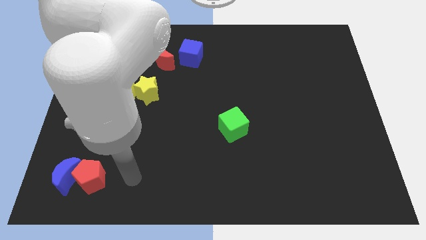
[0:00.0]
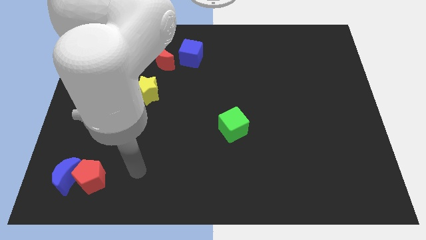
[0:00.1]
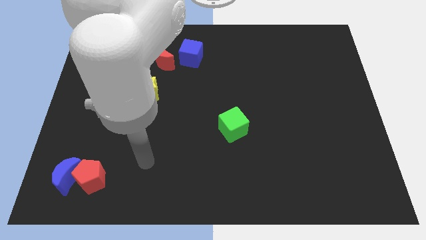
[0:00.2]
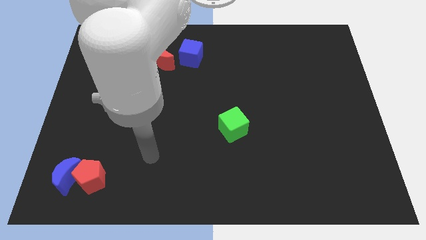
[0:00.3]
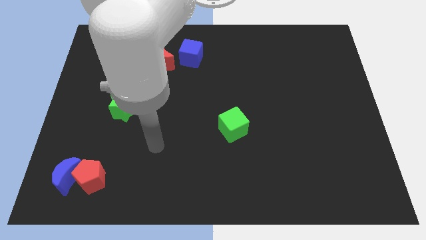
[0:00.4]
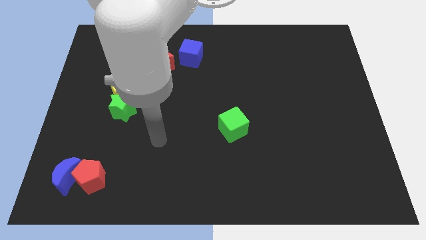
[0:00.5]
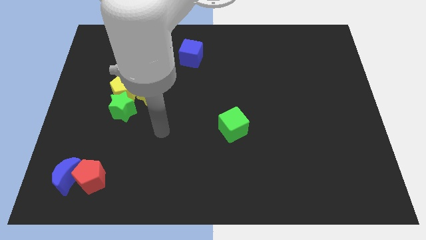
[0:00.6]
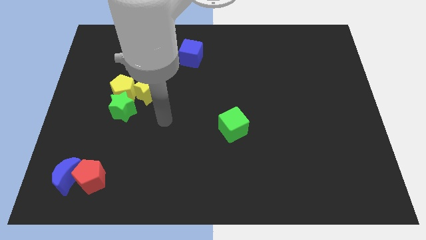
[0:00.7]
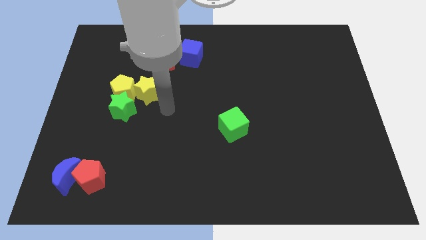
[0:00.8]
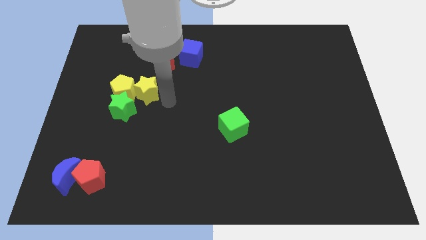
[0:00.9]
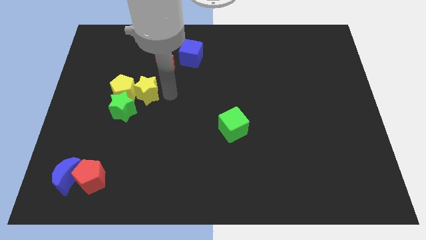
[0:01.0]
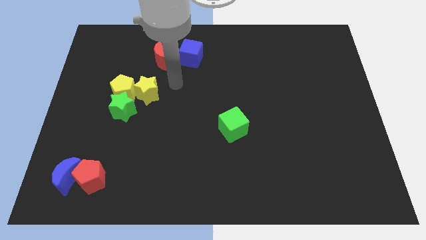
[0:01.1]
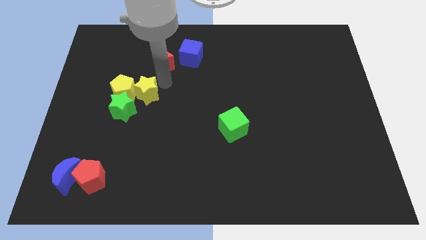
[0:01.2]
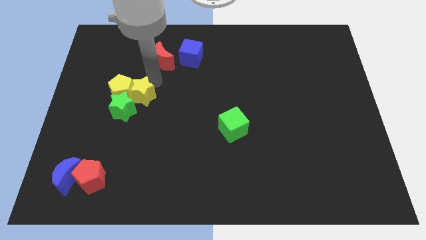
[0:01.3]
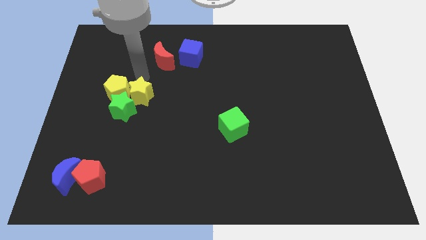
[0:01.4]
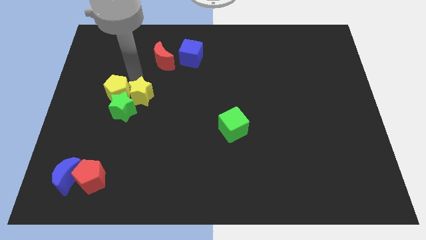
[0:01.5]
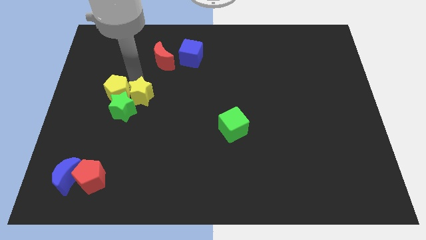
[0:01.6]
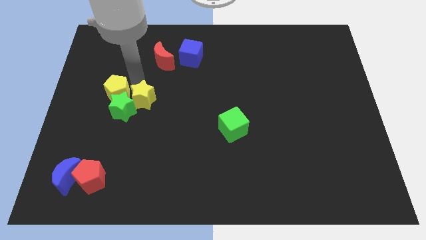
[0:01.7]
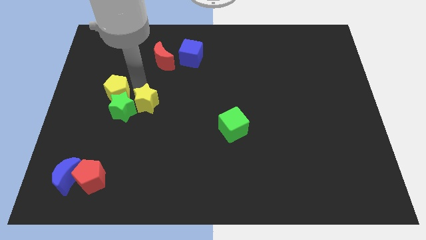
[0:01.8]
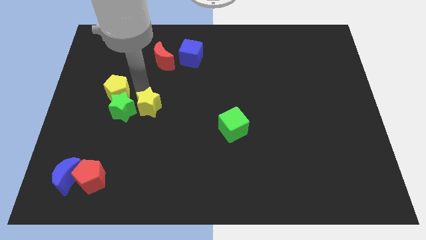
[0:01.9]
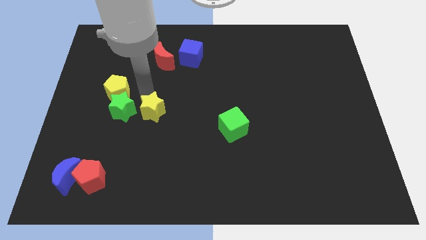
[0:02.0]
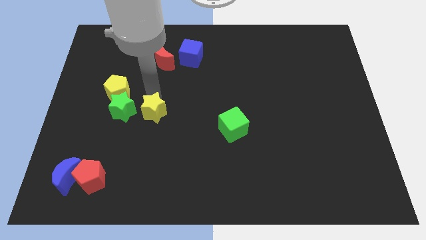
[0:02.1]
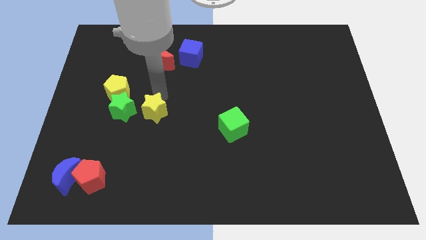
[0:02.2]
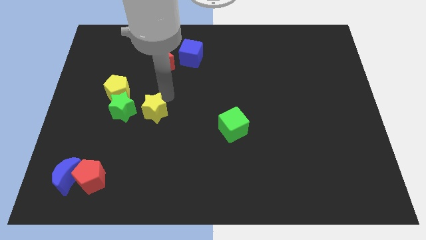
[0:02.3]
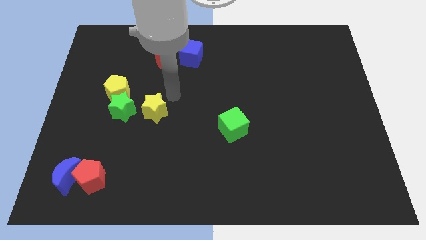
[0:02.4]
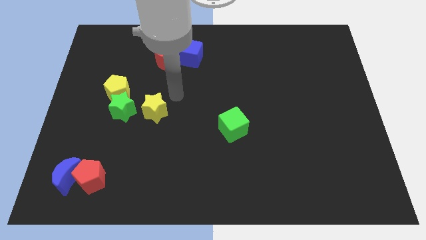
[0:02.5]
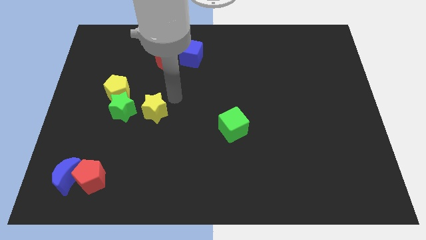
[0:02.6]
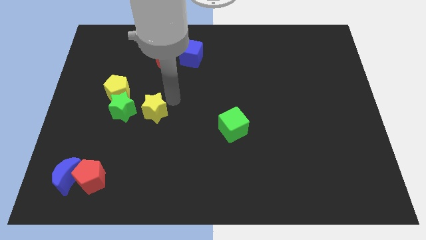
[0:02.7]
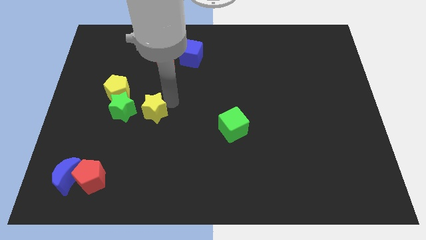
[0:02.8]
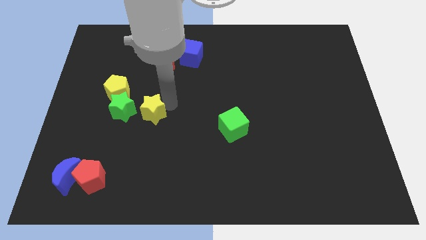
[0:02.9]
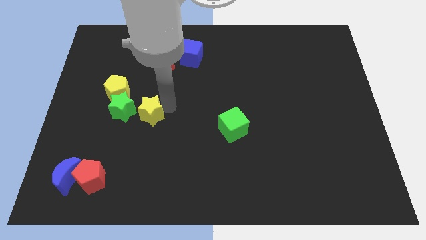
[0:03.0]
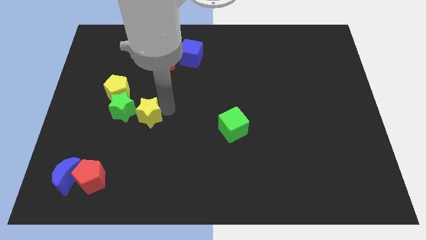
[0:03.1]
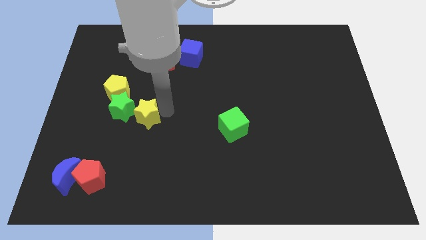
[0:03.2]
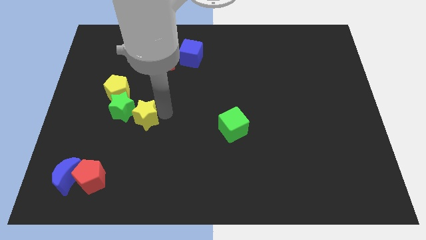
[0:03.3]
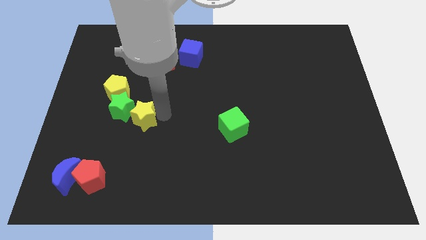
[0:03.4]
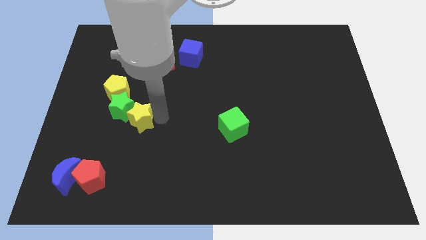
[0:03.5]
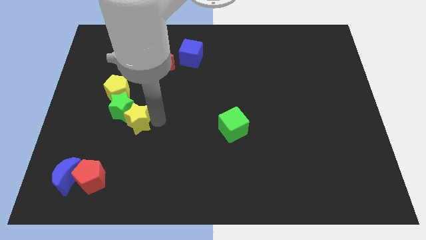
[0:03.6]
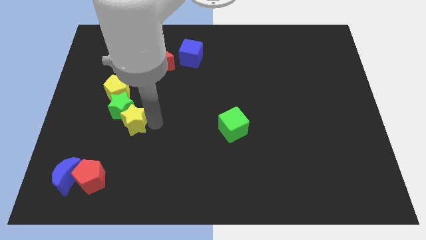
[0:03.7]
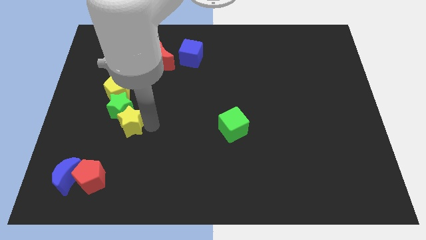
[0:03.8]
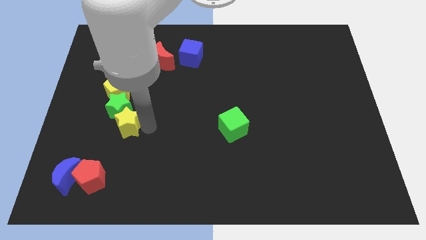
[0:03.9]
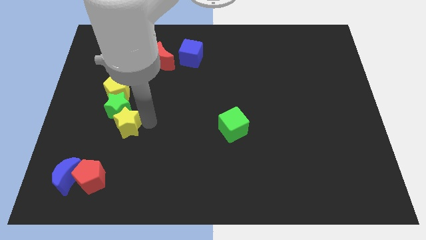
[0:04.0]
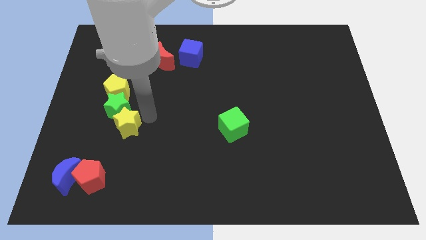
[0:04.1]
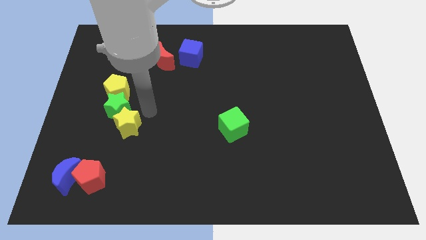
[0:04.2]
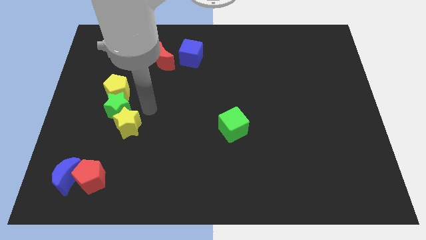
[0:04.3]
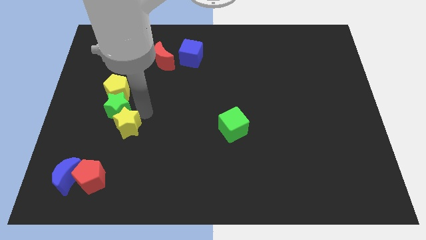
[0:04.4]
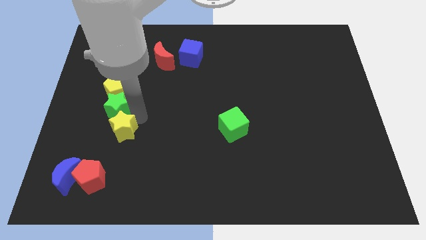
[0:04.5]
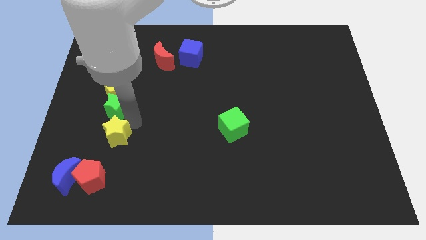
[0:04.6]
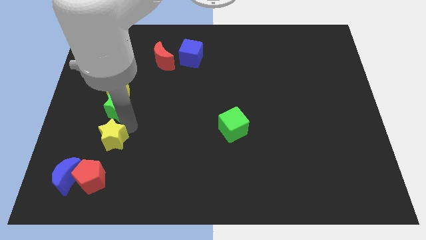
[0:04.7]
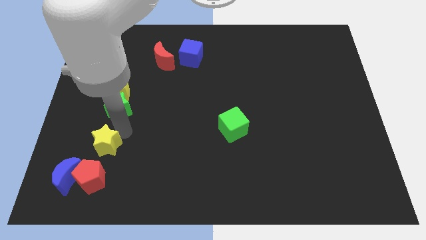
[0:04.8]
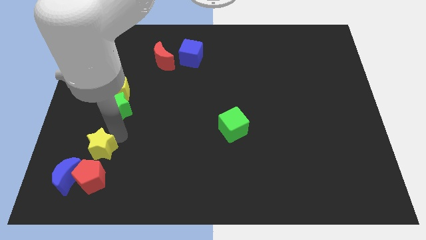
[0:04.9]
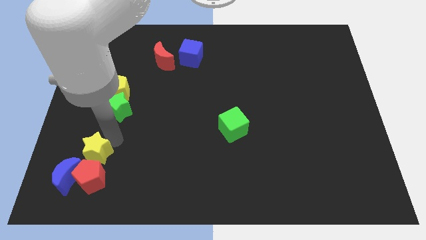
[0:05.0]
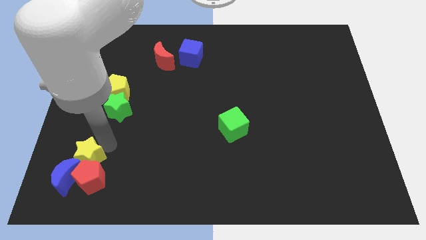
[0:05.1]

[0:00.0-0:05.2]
slide the yellow star next to the blue moon
